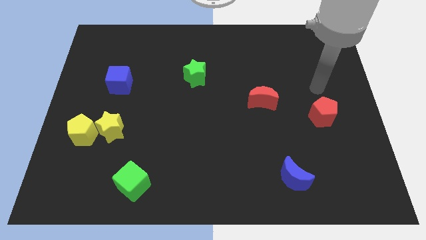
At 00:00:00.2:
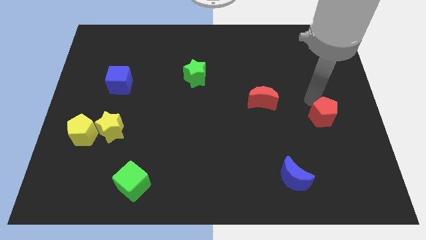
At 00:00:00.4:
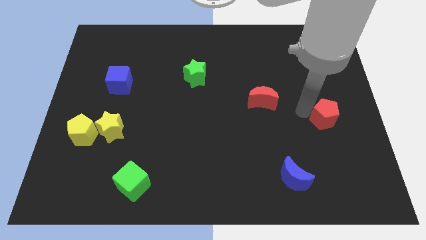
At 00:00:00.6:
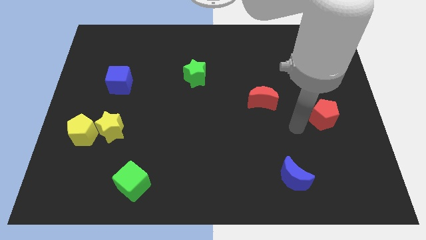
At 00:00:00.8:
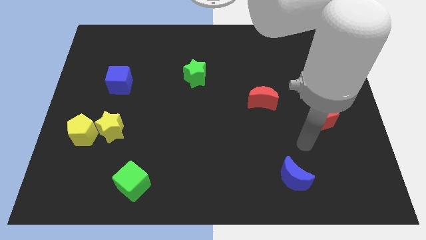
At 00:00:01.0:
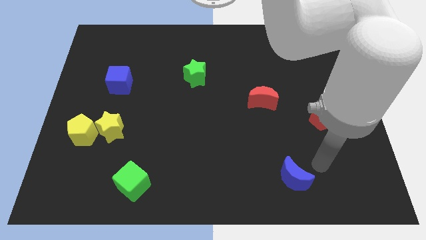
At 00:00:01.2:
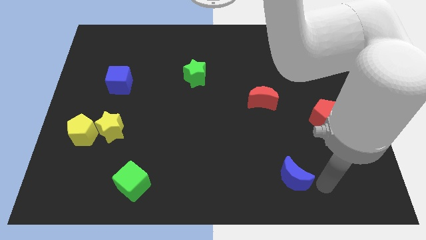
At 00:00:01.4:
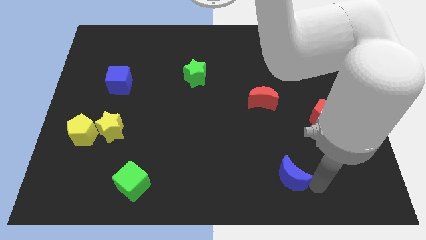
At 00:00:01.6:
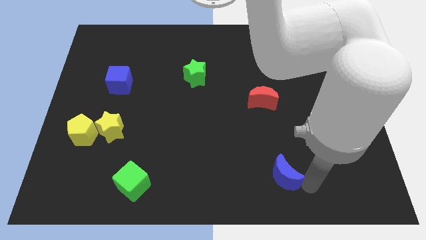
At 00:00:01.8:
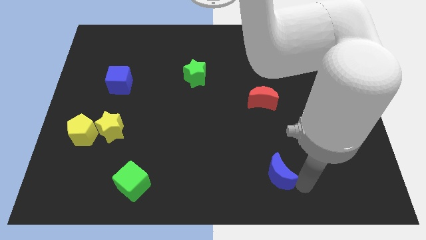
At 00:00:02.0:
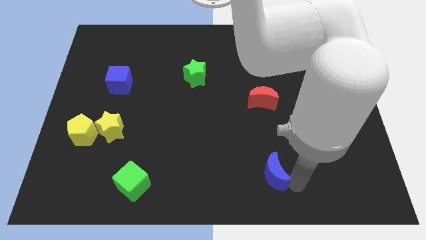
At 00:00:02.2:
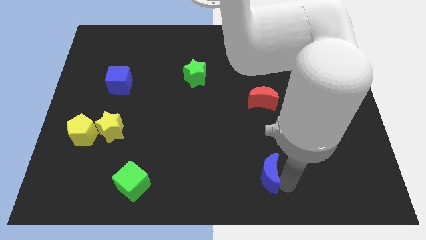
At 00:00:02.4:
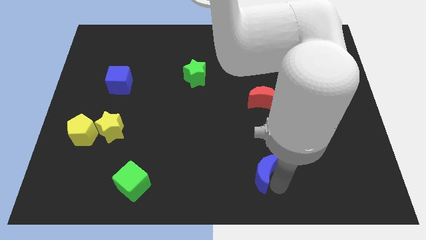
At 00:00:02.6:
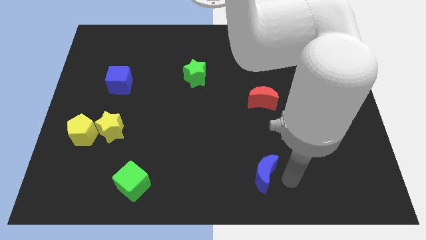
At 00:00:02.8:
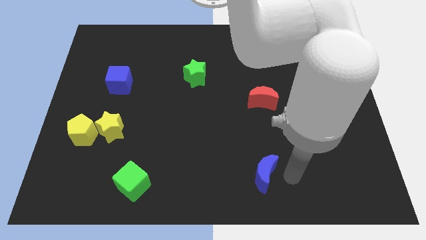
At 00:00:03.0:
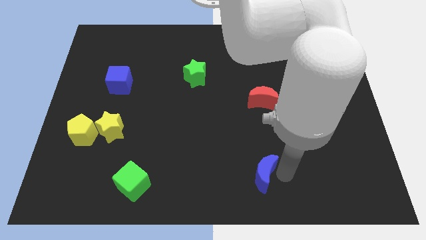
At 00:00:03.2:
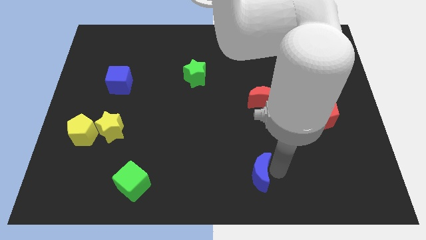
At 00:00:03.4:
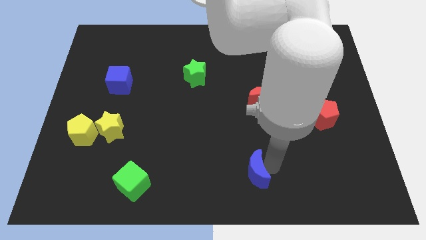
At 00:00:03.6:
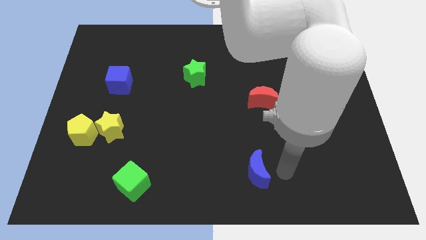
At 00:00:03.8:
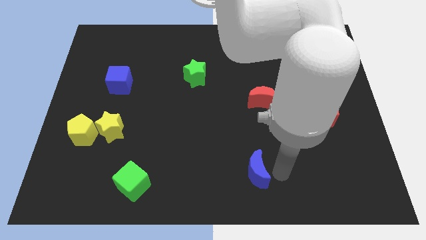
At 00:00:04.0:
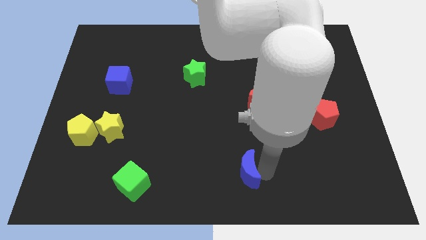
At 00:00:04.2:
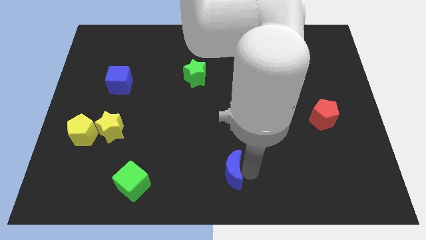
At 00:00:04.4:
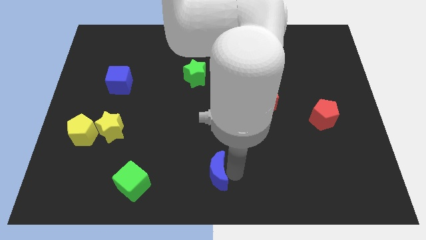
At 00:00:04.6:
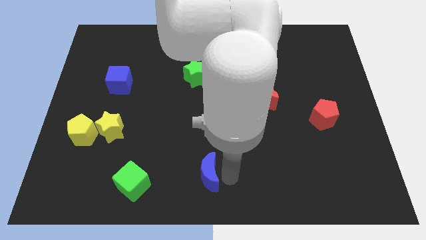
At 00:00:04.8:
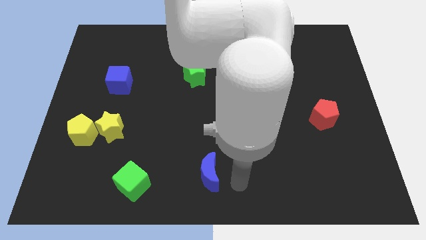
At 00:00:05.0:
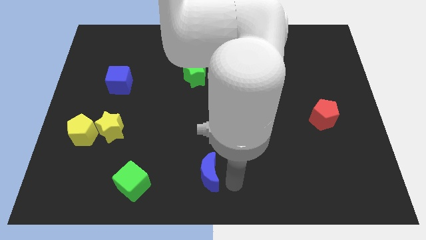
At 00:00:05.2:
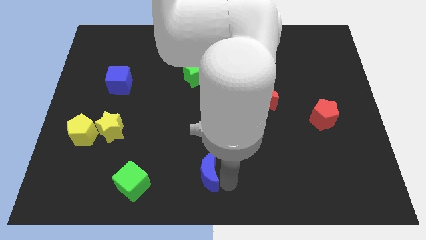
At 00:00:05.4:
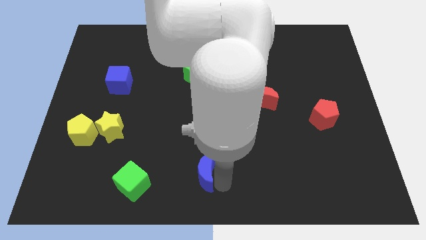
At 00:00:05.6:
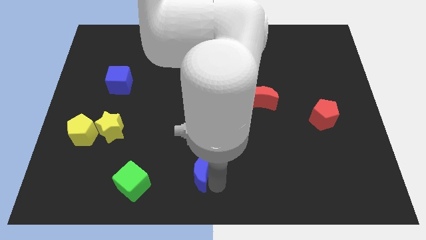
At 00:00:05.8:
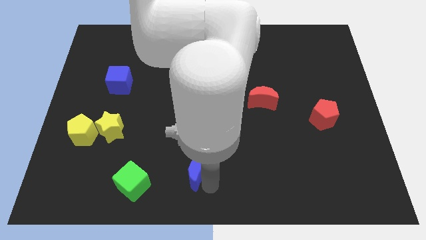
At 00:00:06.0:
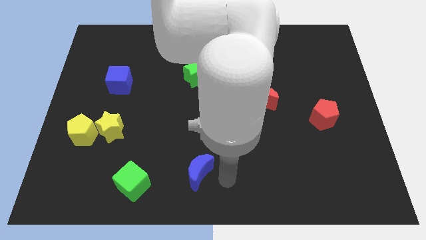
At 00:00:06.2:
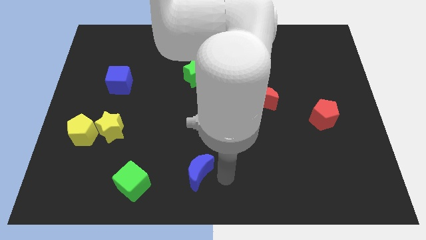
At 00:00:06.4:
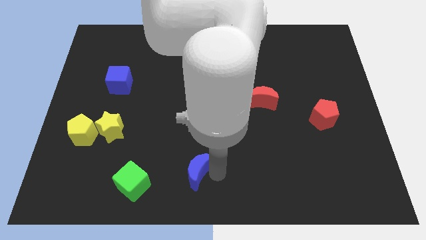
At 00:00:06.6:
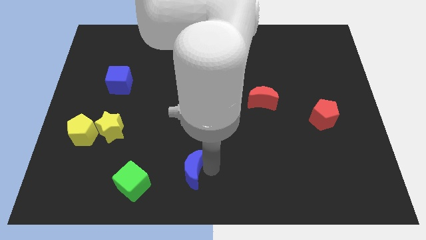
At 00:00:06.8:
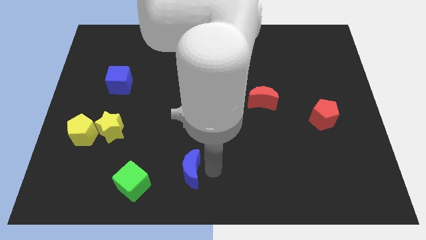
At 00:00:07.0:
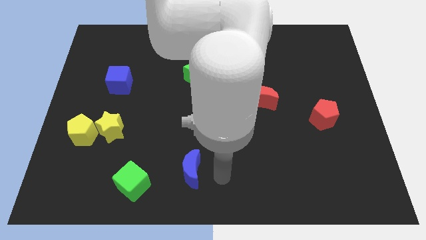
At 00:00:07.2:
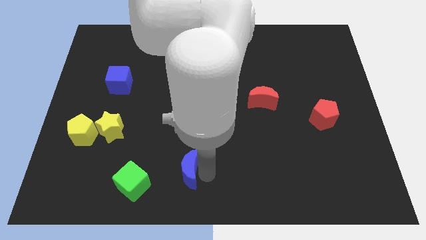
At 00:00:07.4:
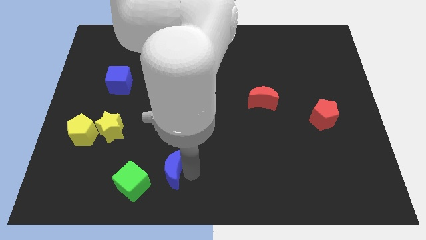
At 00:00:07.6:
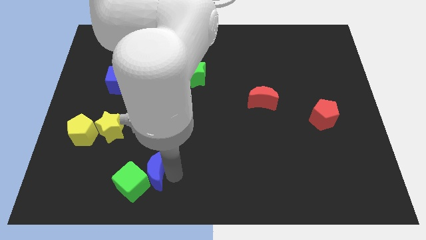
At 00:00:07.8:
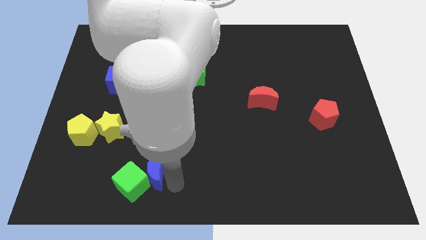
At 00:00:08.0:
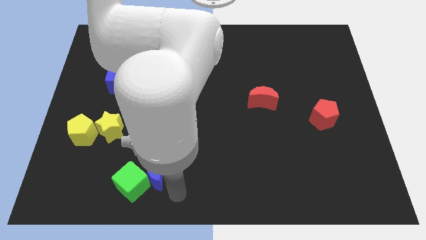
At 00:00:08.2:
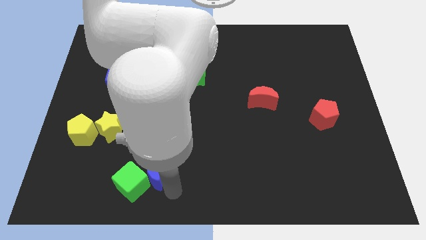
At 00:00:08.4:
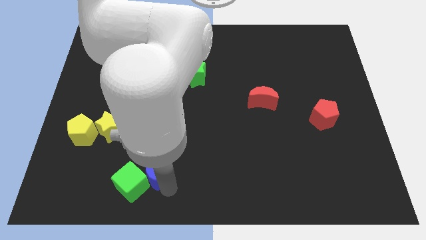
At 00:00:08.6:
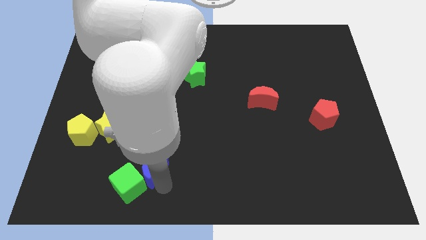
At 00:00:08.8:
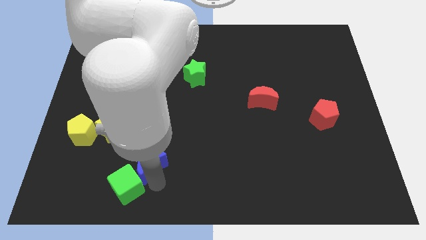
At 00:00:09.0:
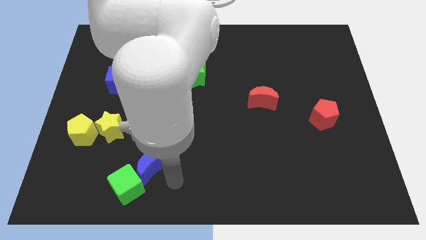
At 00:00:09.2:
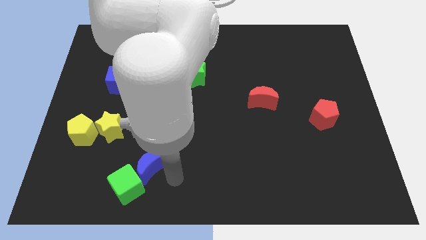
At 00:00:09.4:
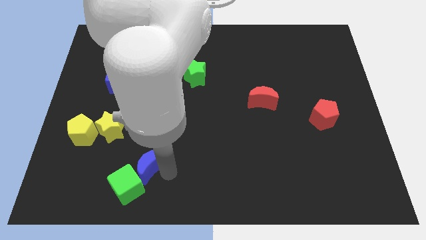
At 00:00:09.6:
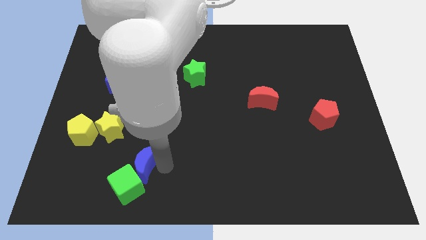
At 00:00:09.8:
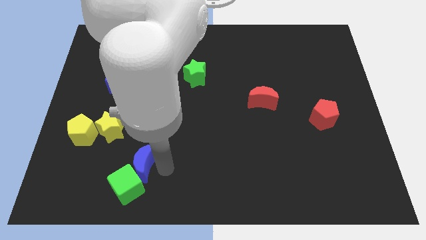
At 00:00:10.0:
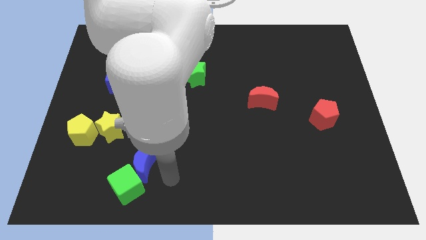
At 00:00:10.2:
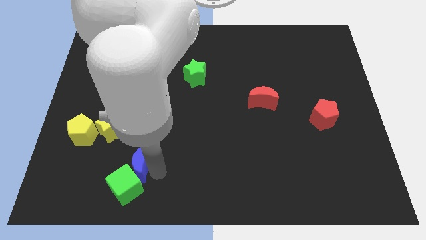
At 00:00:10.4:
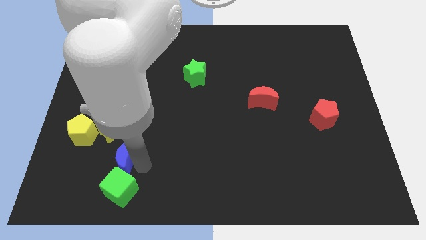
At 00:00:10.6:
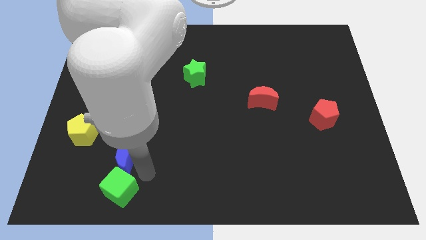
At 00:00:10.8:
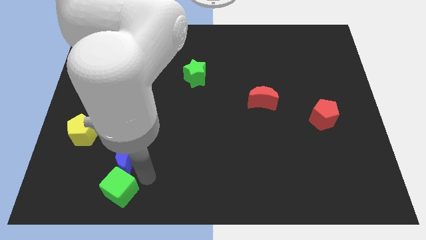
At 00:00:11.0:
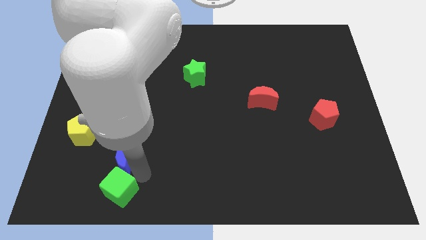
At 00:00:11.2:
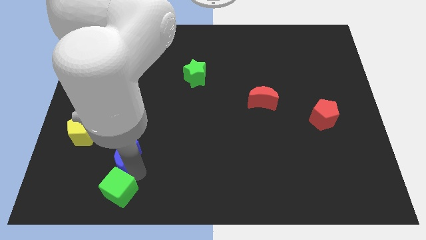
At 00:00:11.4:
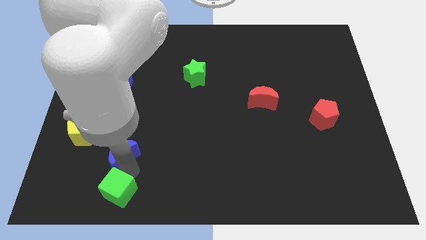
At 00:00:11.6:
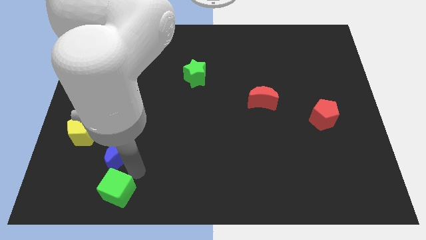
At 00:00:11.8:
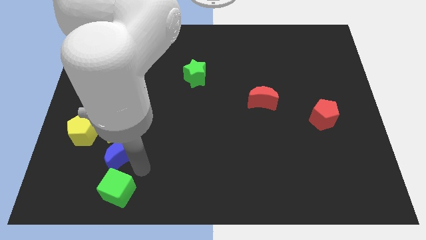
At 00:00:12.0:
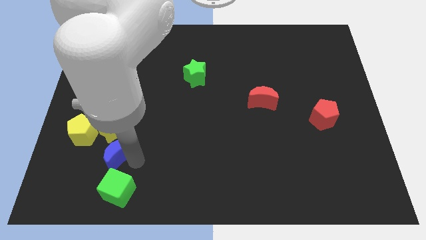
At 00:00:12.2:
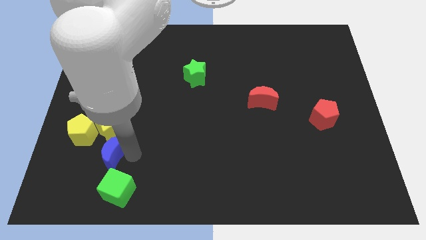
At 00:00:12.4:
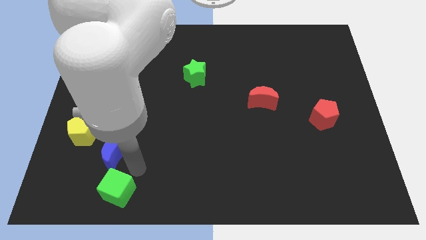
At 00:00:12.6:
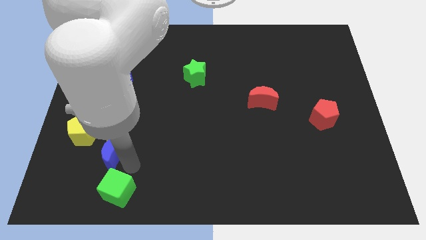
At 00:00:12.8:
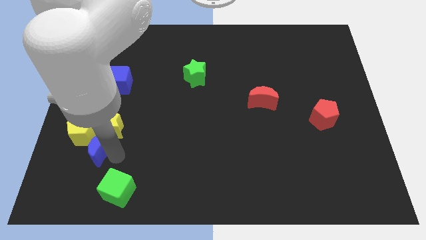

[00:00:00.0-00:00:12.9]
put the blue moon close to the yellow pentagon

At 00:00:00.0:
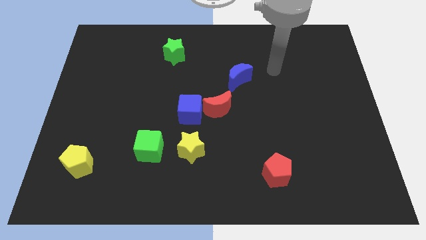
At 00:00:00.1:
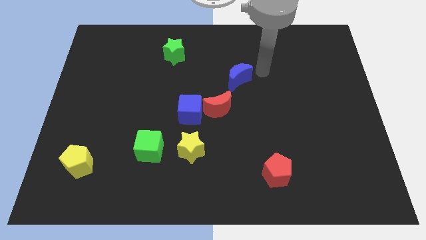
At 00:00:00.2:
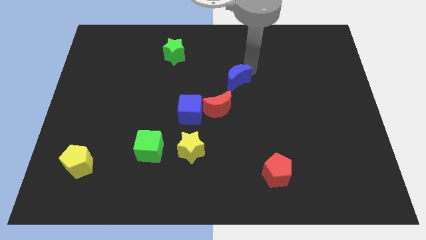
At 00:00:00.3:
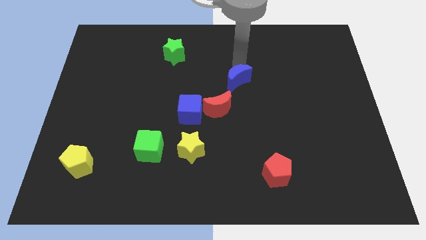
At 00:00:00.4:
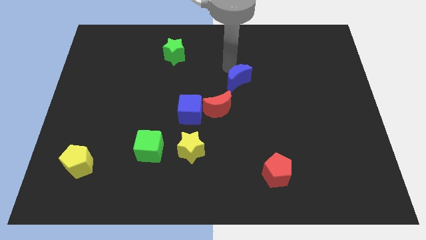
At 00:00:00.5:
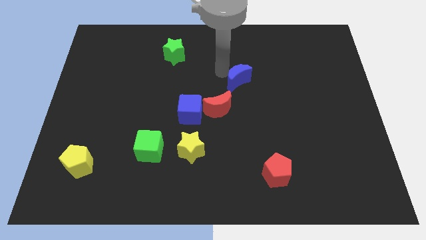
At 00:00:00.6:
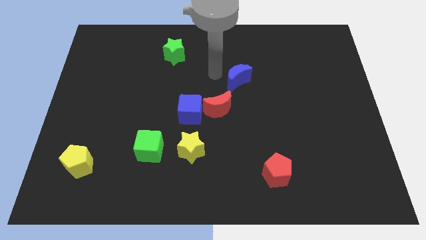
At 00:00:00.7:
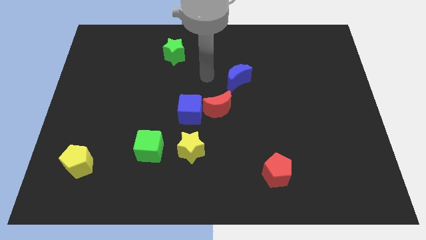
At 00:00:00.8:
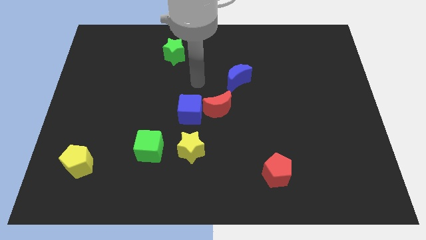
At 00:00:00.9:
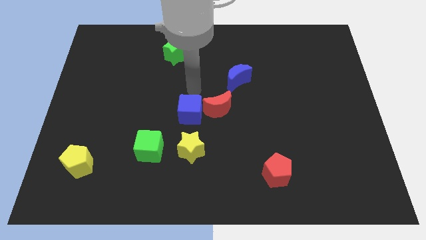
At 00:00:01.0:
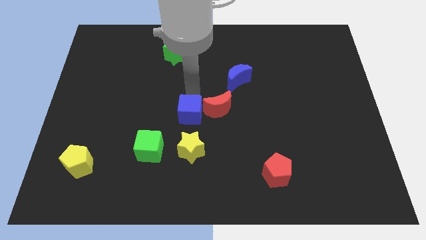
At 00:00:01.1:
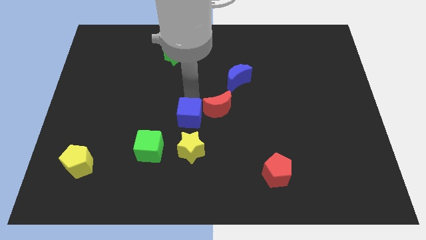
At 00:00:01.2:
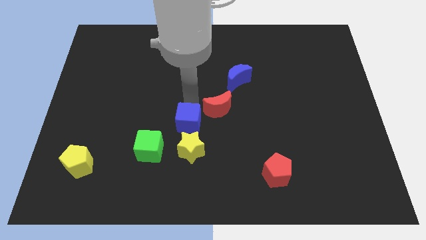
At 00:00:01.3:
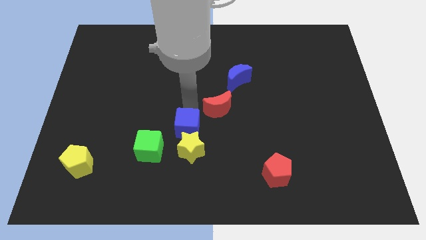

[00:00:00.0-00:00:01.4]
put the blue cube towards the yellow star
